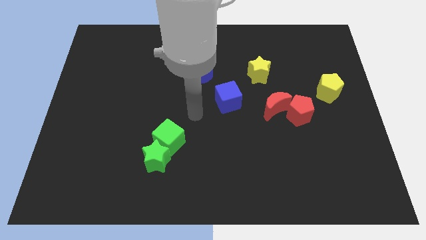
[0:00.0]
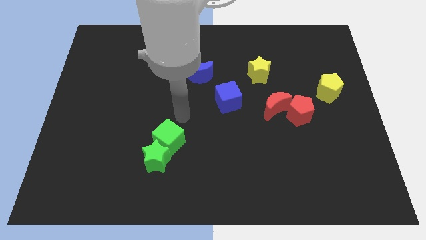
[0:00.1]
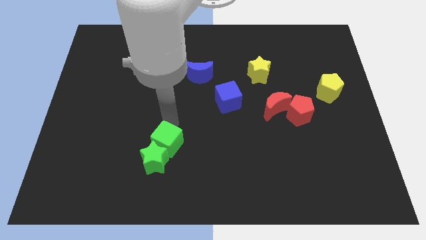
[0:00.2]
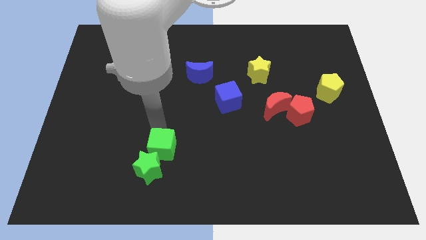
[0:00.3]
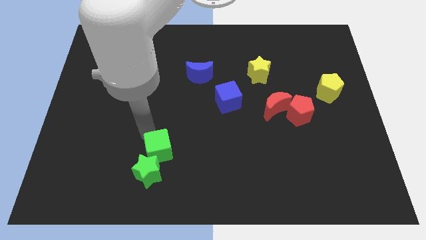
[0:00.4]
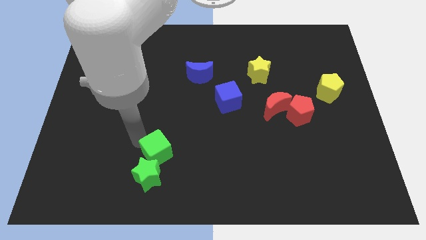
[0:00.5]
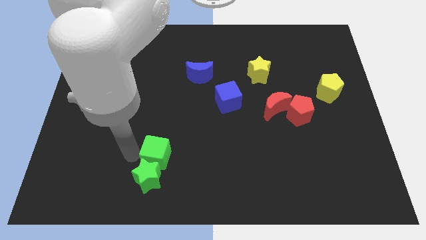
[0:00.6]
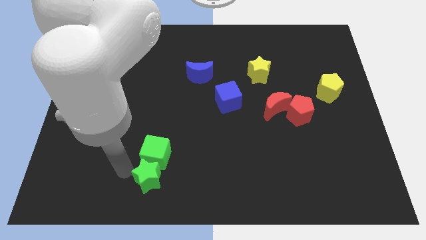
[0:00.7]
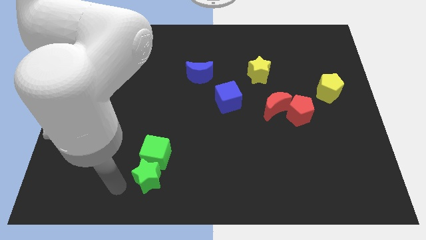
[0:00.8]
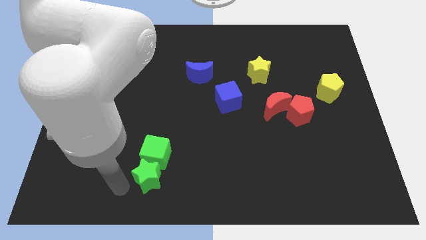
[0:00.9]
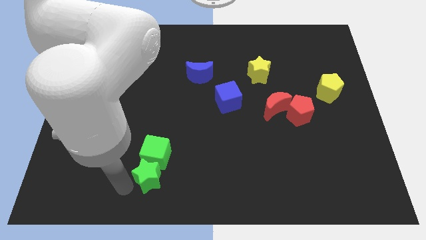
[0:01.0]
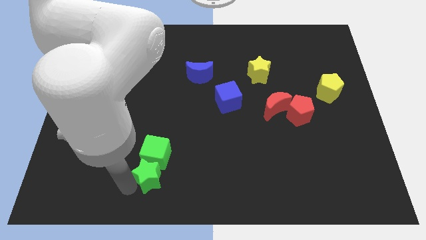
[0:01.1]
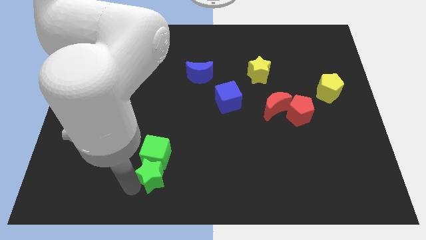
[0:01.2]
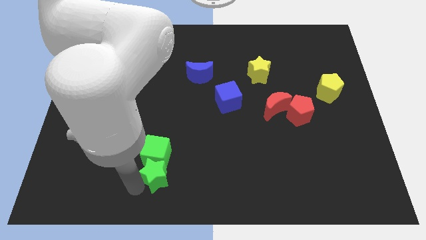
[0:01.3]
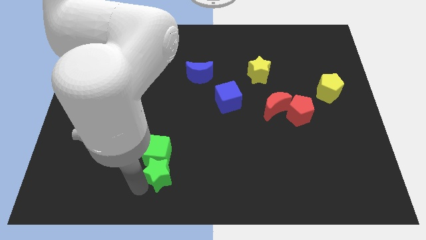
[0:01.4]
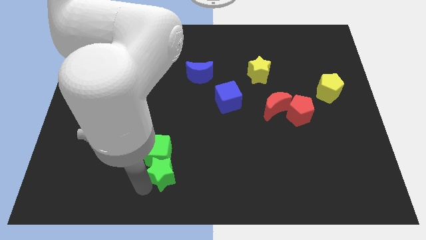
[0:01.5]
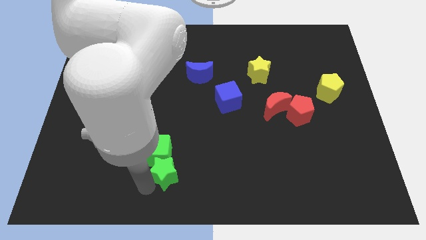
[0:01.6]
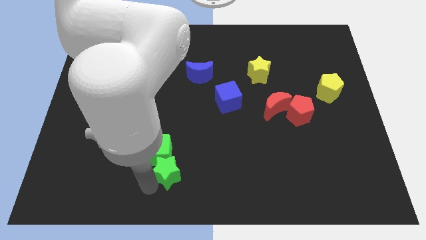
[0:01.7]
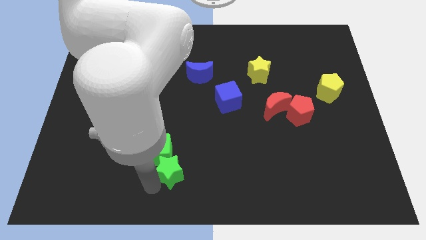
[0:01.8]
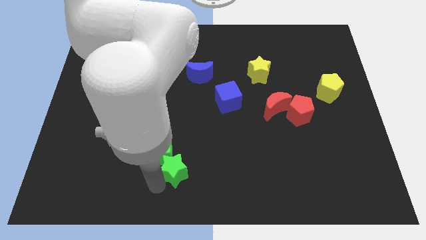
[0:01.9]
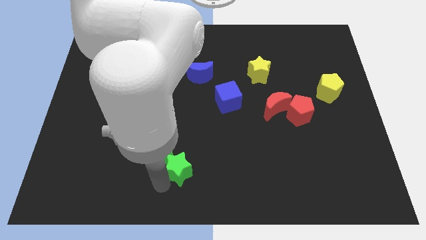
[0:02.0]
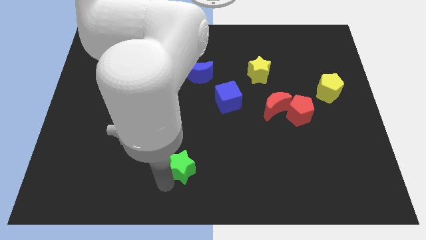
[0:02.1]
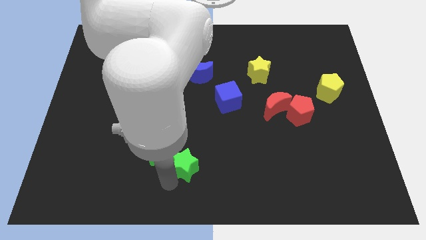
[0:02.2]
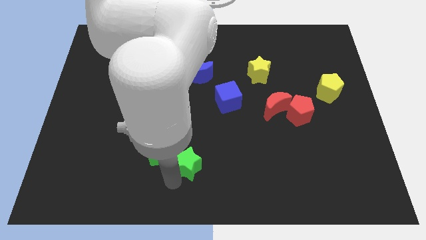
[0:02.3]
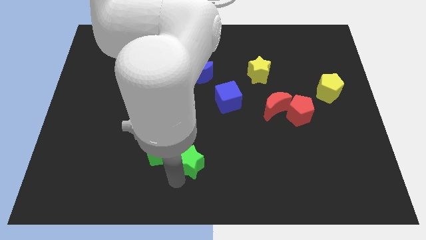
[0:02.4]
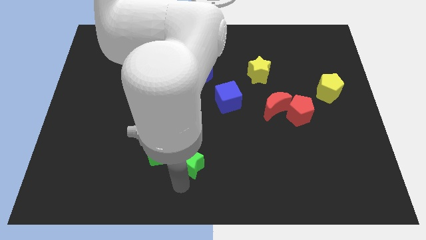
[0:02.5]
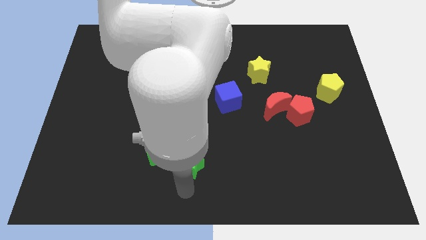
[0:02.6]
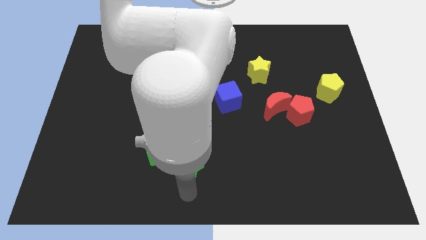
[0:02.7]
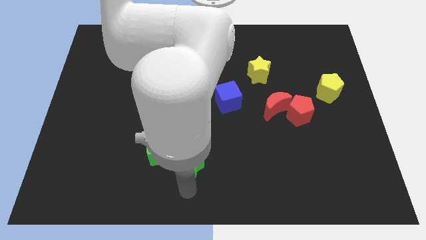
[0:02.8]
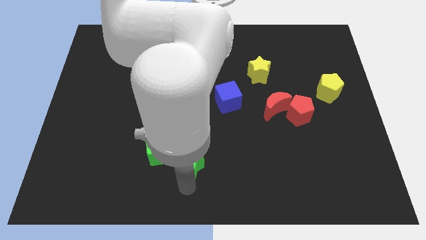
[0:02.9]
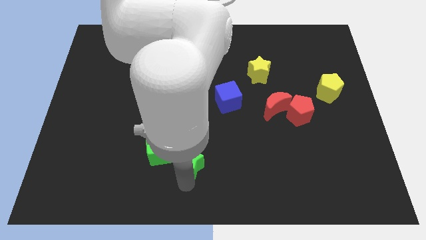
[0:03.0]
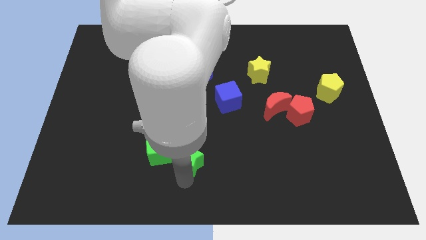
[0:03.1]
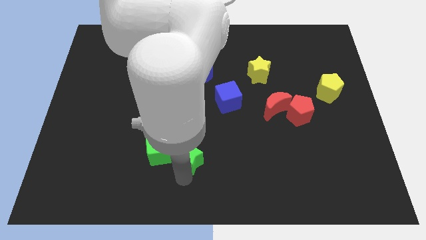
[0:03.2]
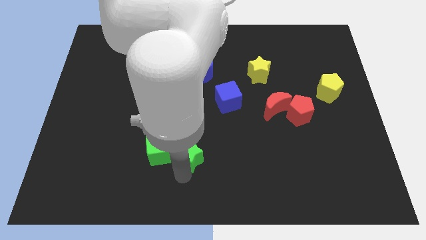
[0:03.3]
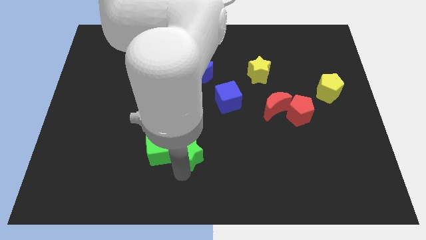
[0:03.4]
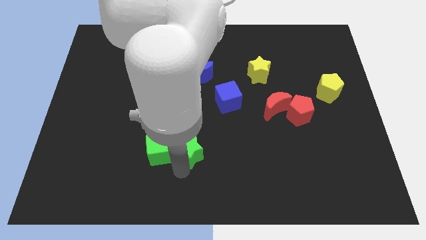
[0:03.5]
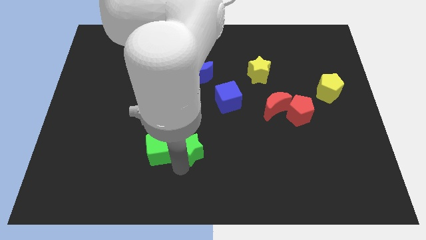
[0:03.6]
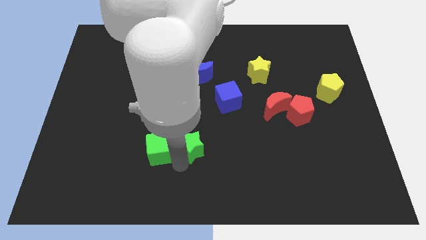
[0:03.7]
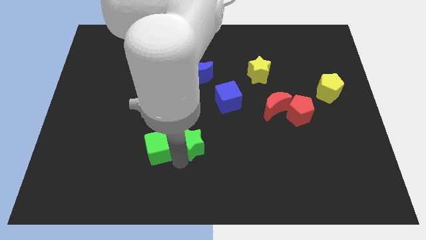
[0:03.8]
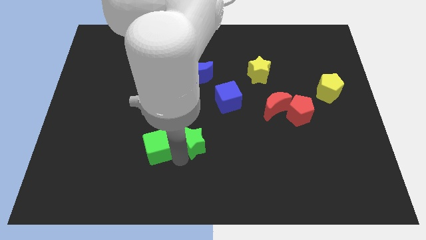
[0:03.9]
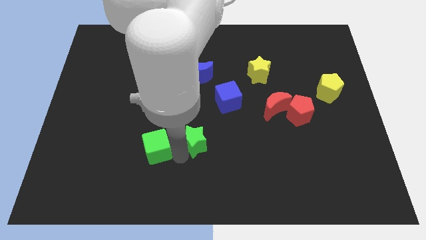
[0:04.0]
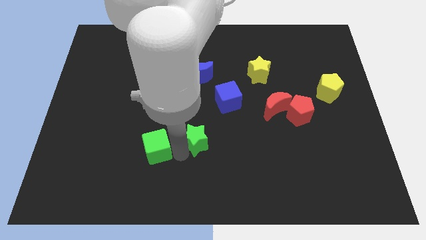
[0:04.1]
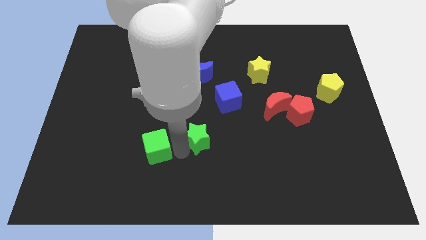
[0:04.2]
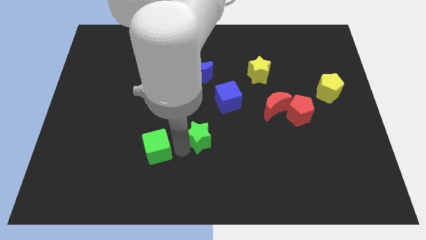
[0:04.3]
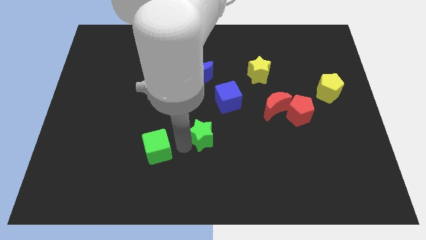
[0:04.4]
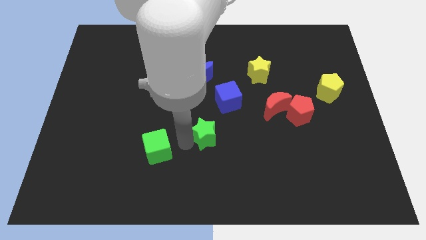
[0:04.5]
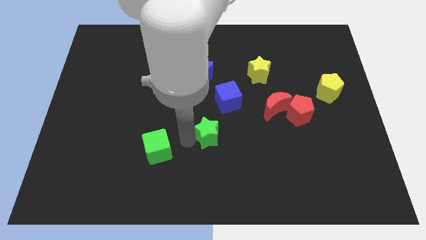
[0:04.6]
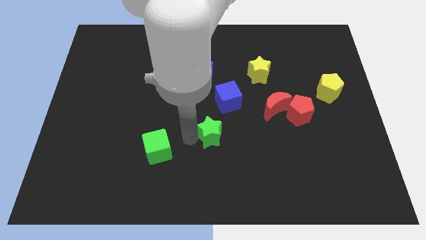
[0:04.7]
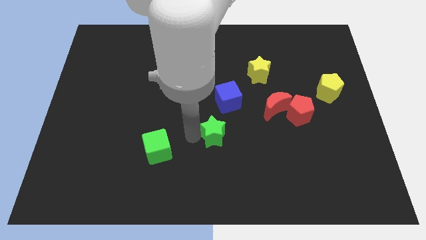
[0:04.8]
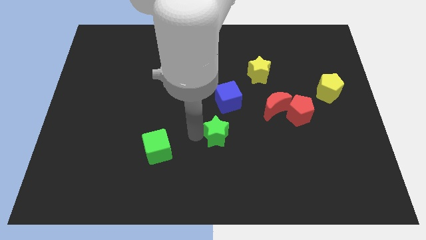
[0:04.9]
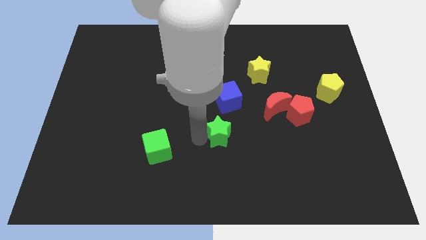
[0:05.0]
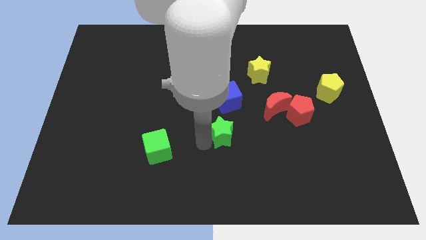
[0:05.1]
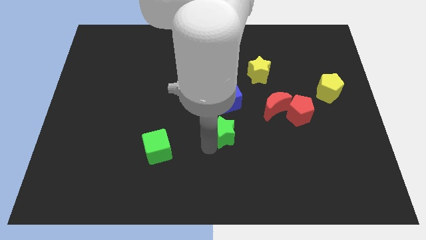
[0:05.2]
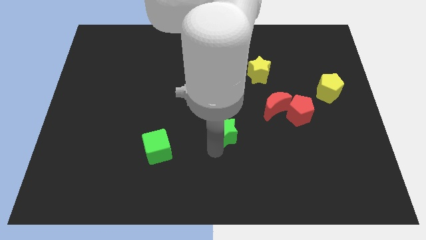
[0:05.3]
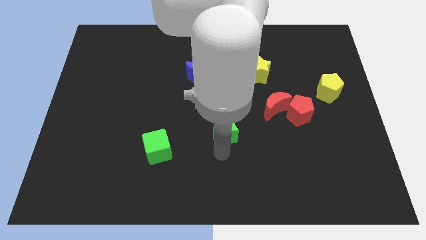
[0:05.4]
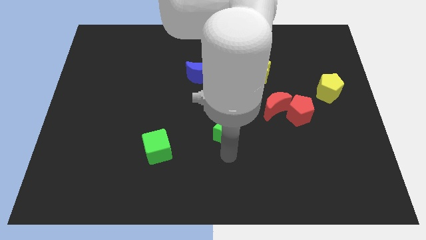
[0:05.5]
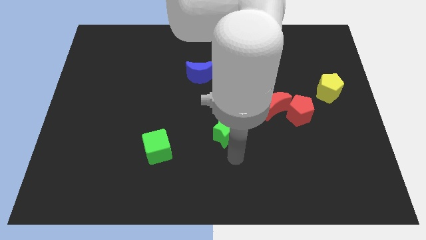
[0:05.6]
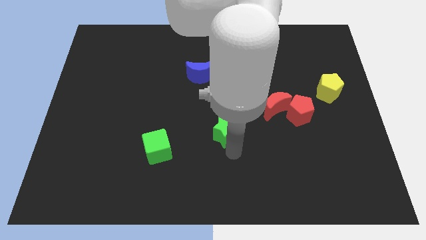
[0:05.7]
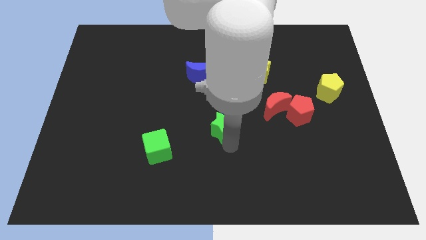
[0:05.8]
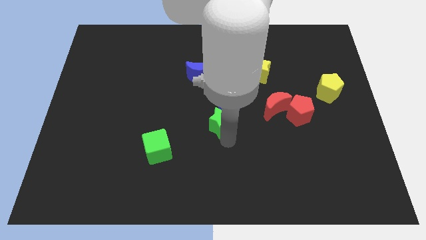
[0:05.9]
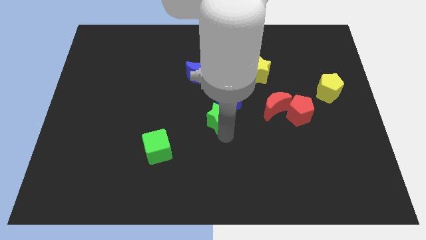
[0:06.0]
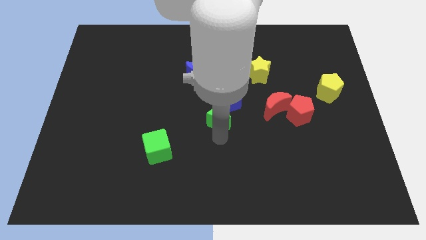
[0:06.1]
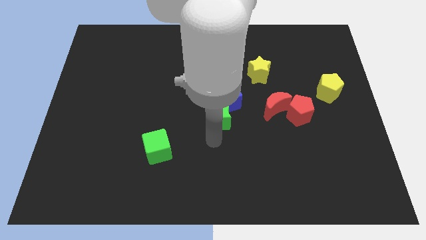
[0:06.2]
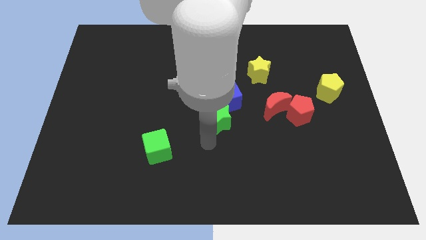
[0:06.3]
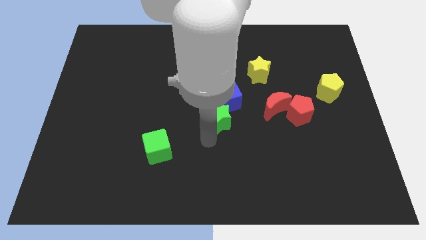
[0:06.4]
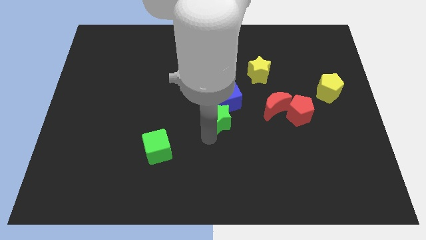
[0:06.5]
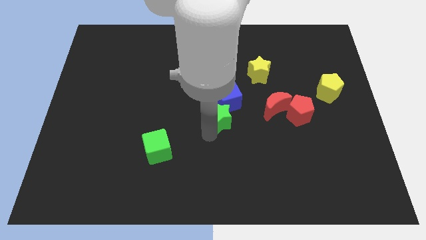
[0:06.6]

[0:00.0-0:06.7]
push the green star close to the blue cube

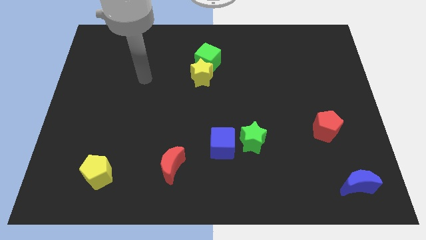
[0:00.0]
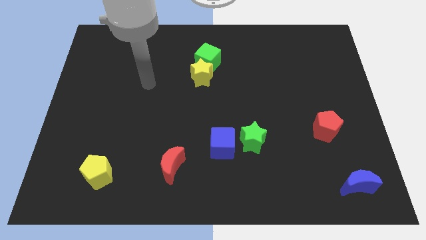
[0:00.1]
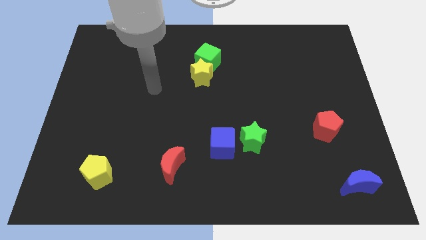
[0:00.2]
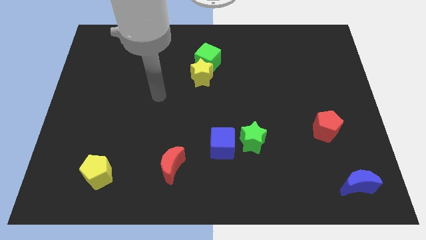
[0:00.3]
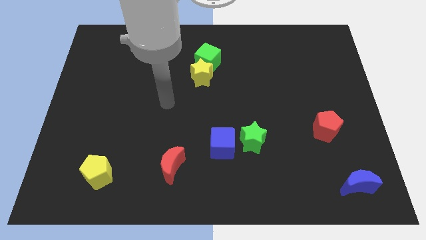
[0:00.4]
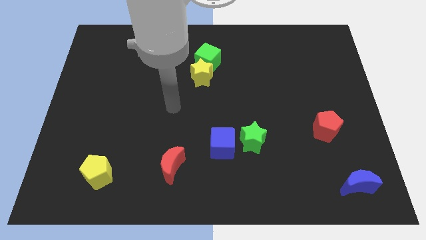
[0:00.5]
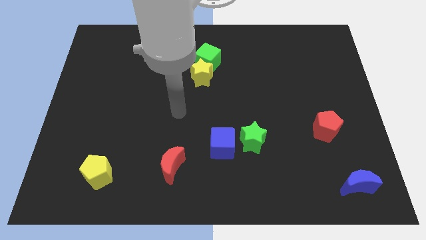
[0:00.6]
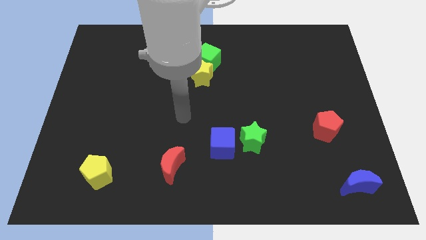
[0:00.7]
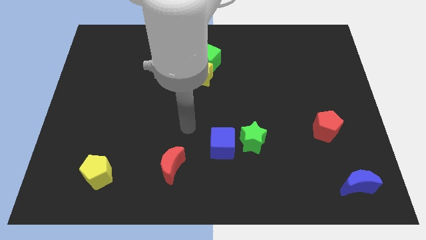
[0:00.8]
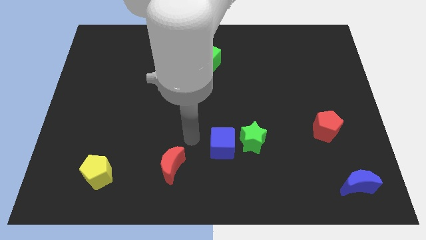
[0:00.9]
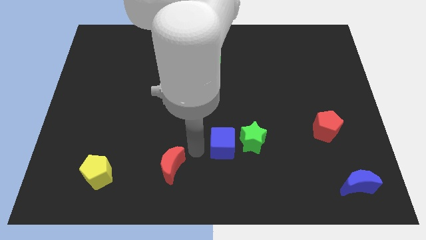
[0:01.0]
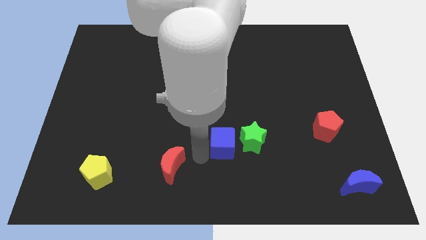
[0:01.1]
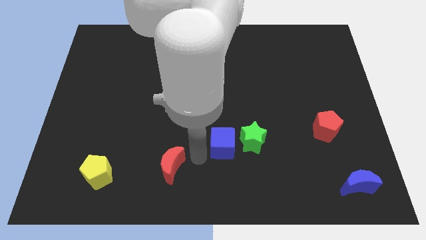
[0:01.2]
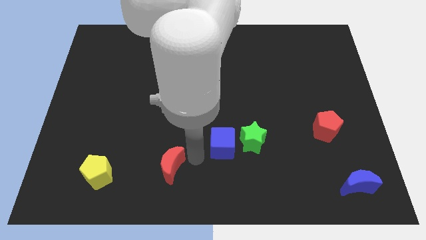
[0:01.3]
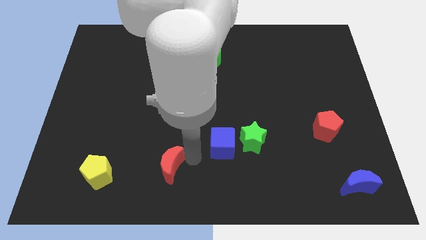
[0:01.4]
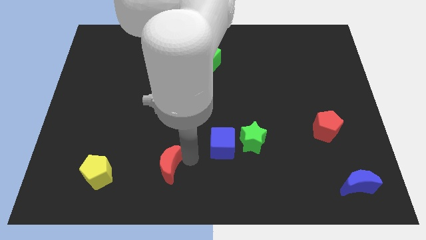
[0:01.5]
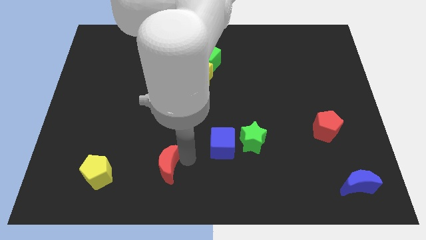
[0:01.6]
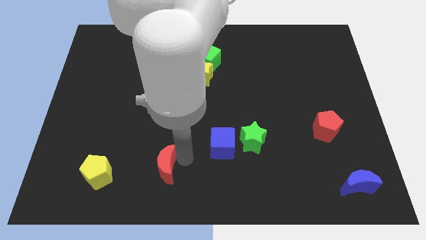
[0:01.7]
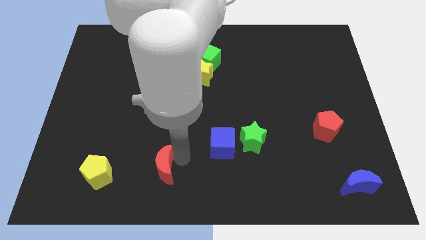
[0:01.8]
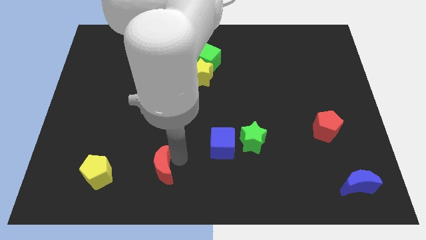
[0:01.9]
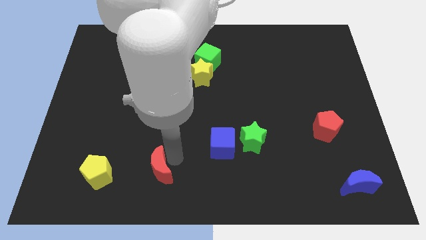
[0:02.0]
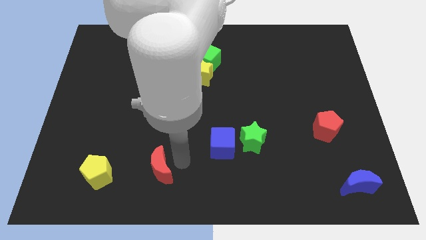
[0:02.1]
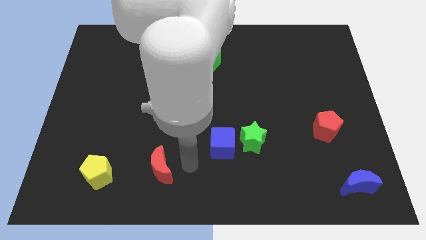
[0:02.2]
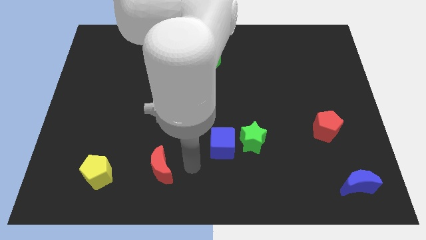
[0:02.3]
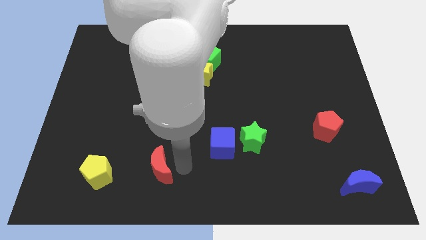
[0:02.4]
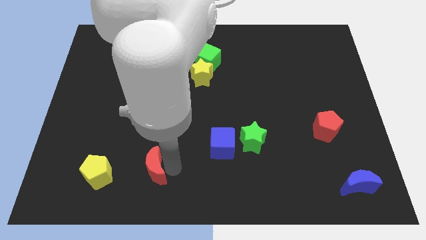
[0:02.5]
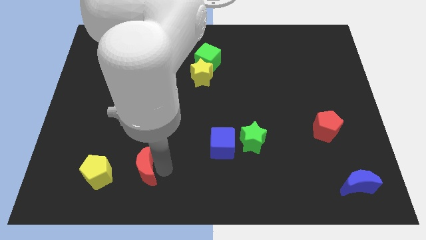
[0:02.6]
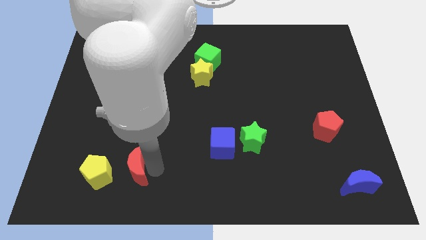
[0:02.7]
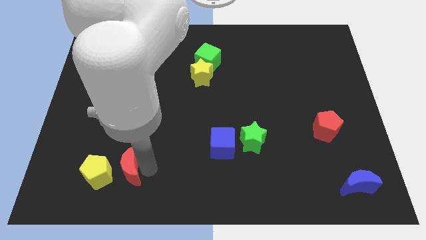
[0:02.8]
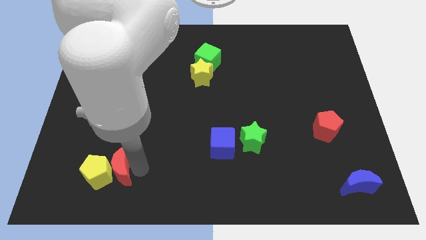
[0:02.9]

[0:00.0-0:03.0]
slide the red moon next to the yellow pentagon
